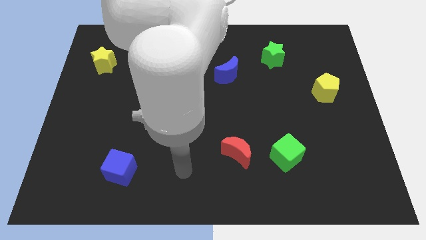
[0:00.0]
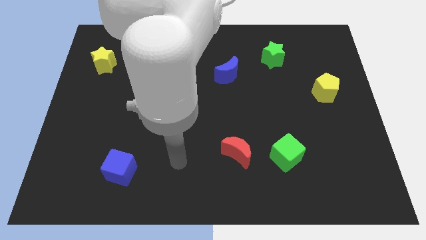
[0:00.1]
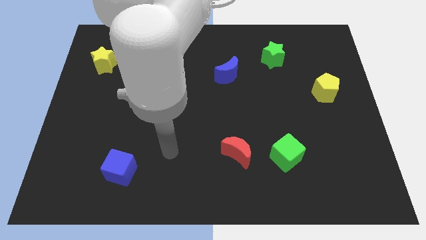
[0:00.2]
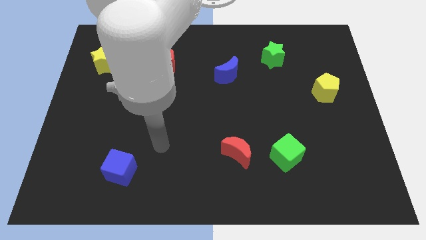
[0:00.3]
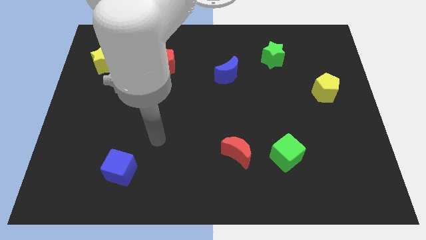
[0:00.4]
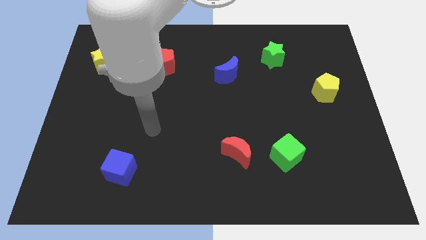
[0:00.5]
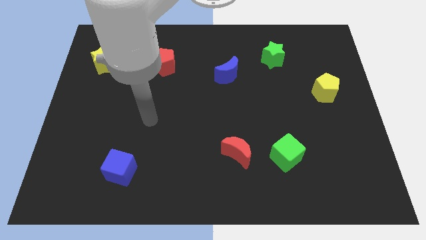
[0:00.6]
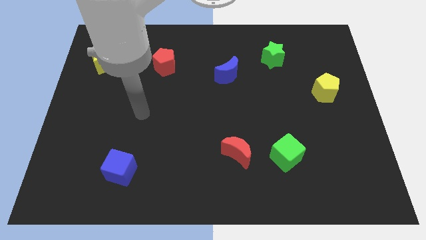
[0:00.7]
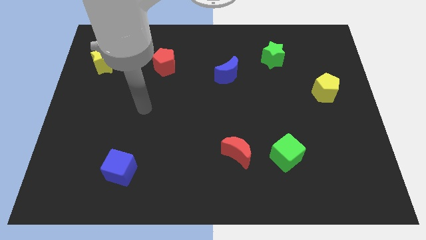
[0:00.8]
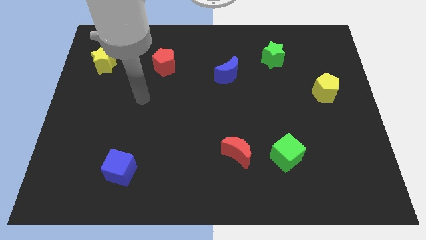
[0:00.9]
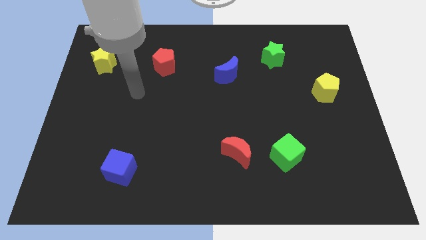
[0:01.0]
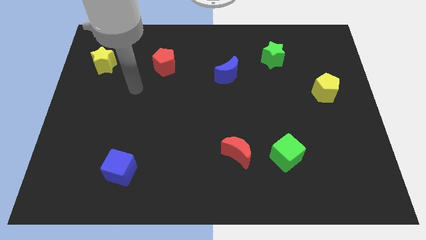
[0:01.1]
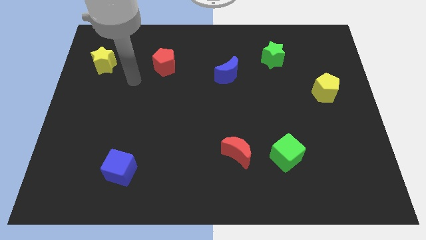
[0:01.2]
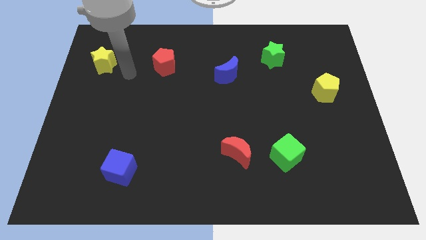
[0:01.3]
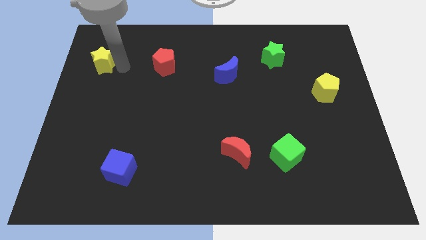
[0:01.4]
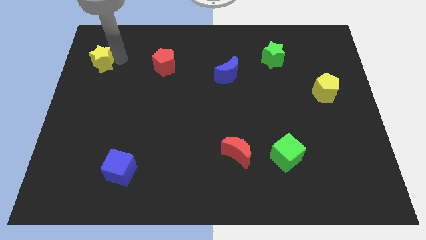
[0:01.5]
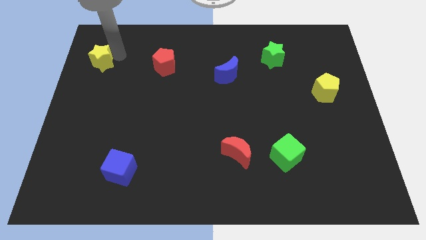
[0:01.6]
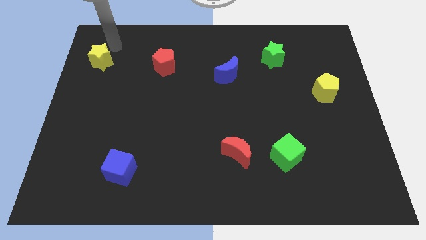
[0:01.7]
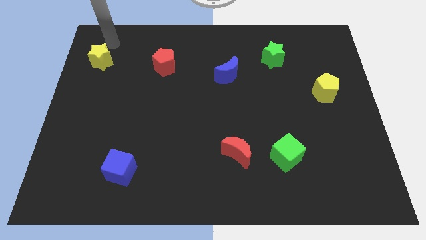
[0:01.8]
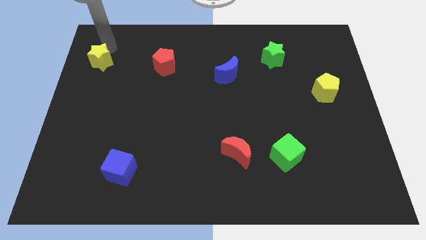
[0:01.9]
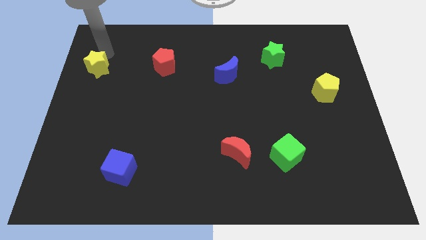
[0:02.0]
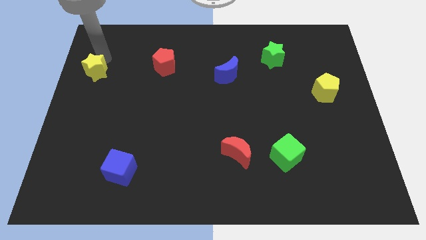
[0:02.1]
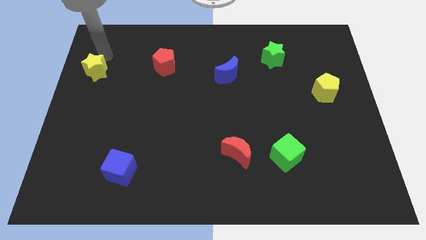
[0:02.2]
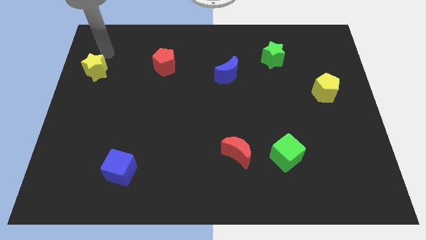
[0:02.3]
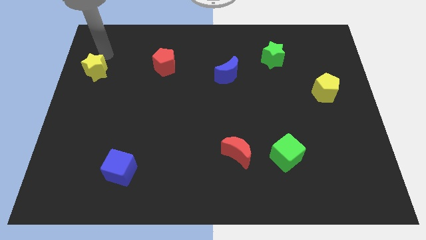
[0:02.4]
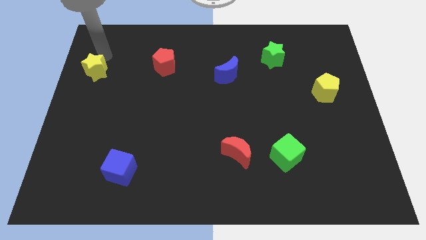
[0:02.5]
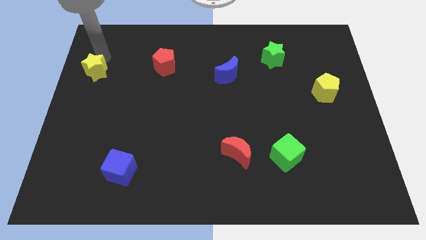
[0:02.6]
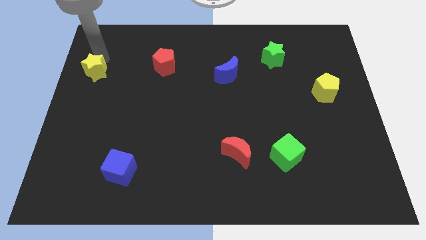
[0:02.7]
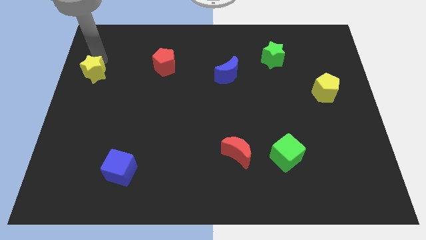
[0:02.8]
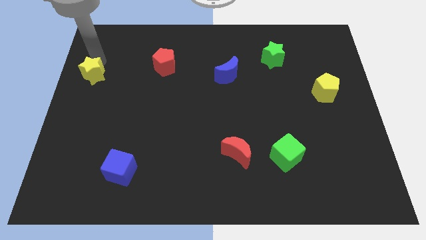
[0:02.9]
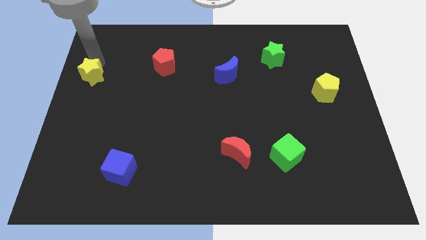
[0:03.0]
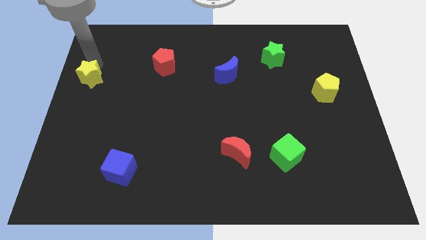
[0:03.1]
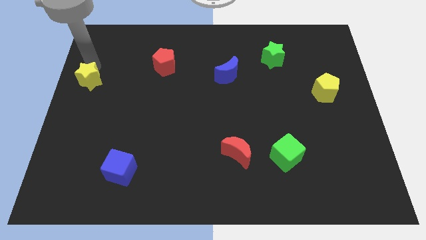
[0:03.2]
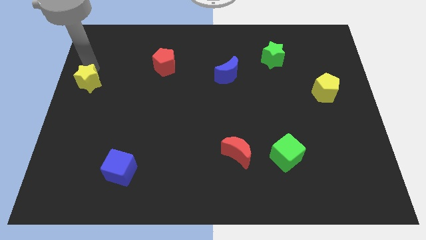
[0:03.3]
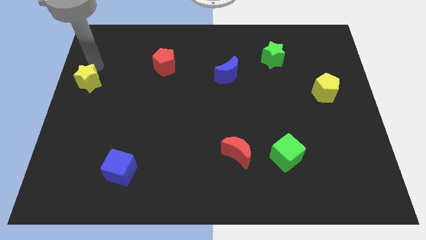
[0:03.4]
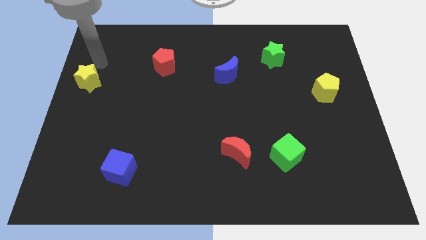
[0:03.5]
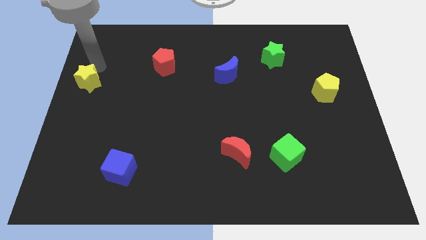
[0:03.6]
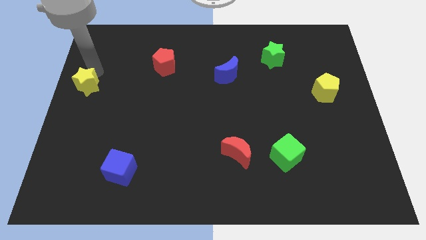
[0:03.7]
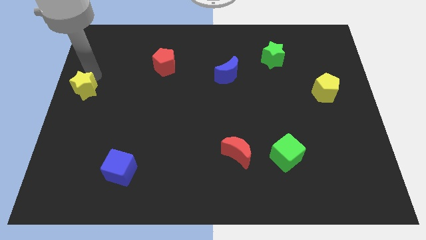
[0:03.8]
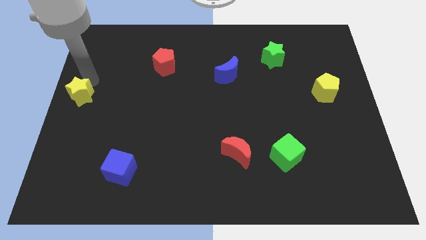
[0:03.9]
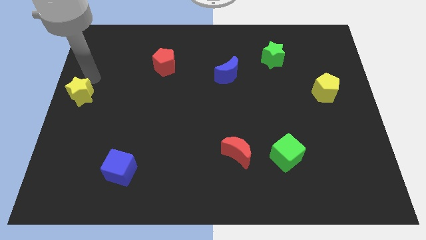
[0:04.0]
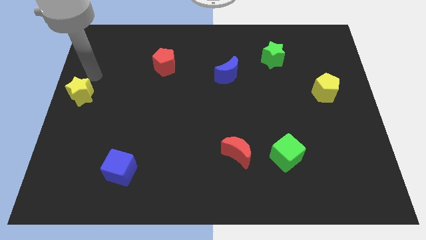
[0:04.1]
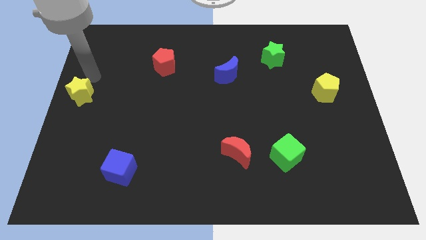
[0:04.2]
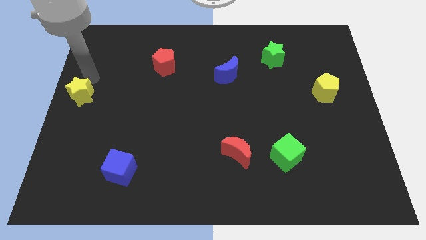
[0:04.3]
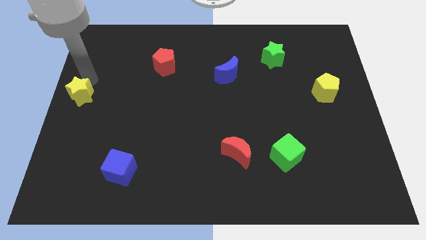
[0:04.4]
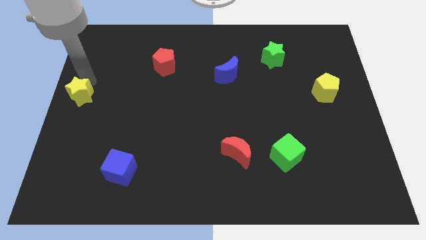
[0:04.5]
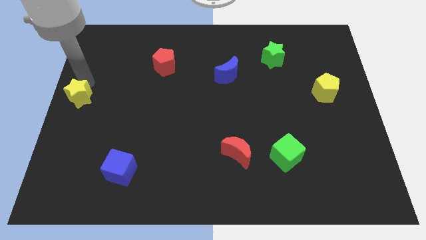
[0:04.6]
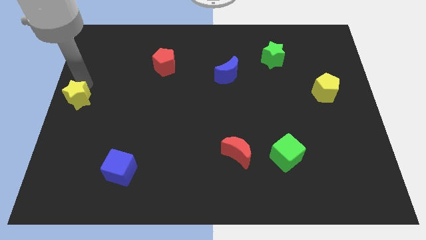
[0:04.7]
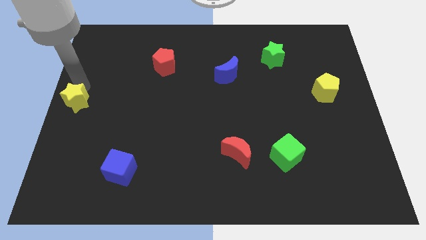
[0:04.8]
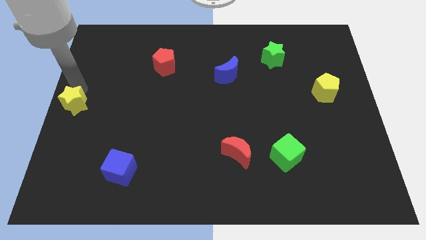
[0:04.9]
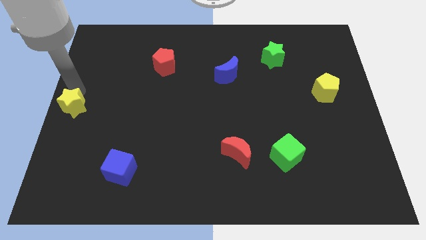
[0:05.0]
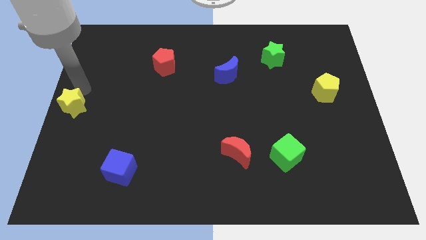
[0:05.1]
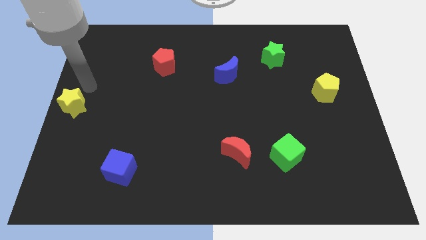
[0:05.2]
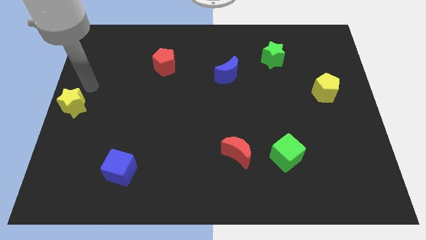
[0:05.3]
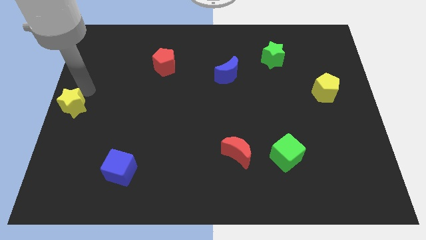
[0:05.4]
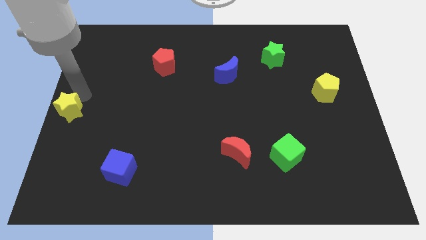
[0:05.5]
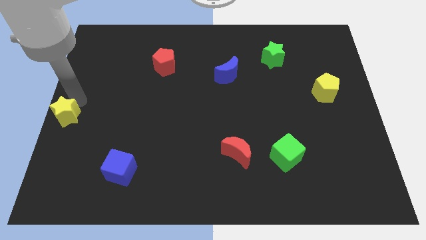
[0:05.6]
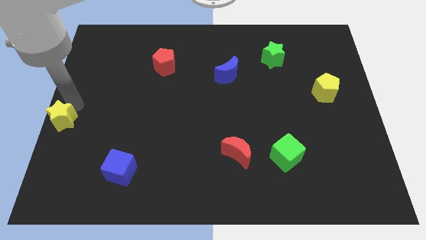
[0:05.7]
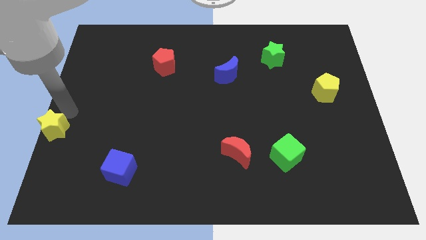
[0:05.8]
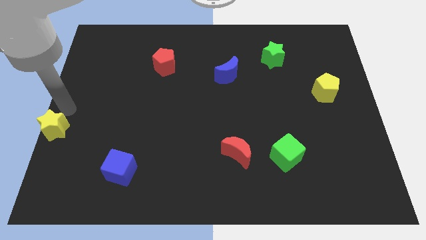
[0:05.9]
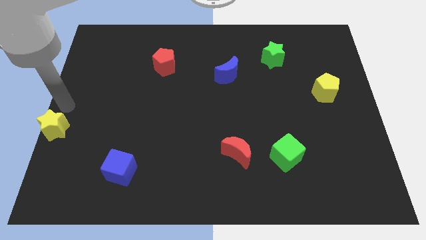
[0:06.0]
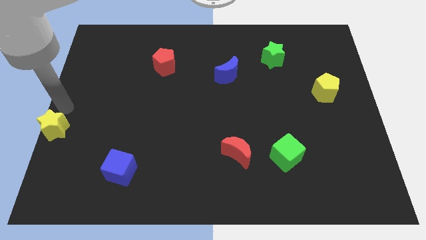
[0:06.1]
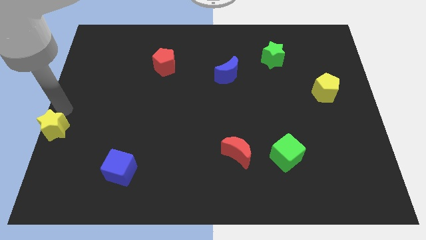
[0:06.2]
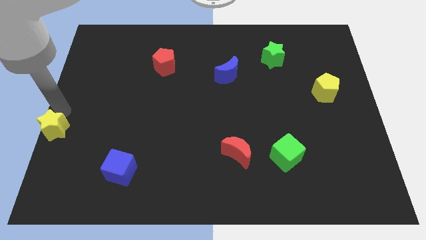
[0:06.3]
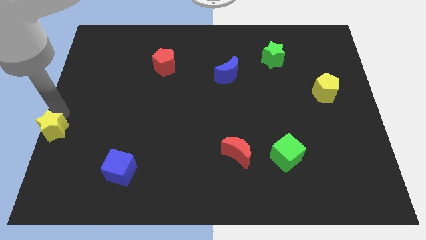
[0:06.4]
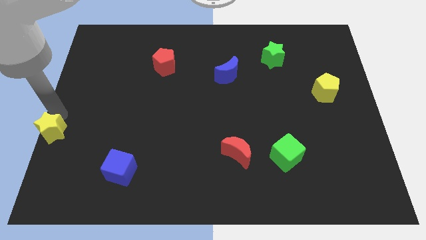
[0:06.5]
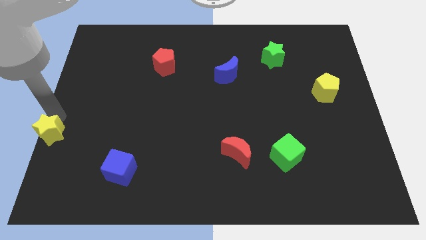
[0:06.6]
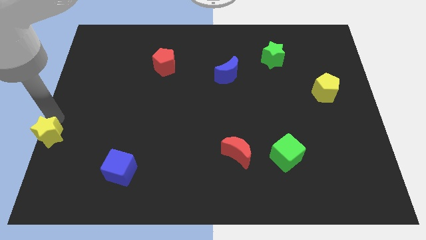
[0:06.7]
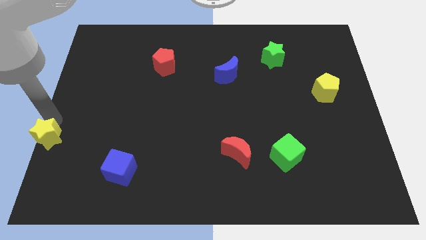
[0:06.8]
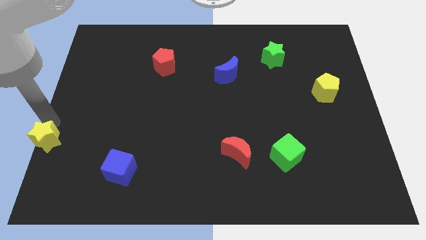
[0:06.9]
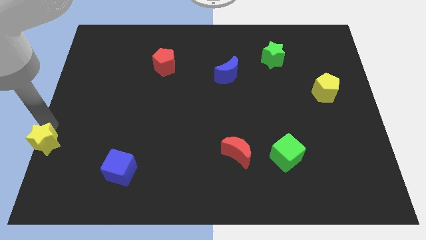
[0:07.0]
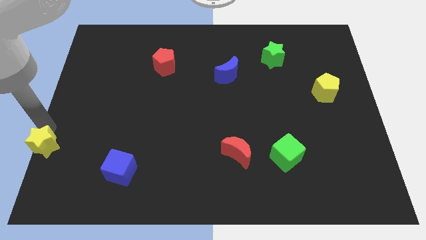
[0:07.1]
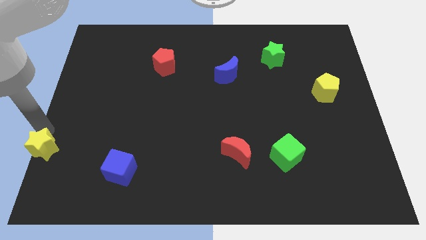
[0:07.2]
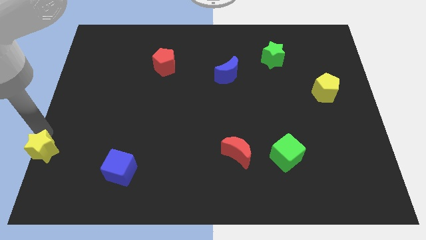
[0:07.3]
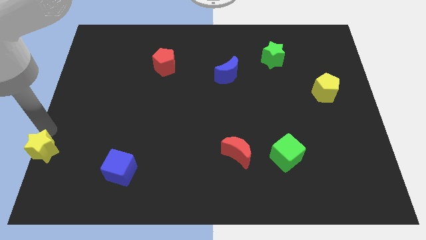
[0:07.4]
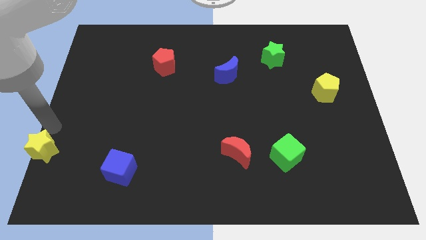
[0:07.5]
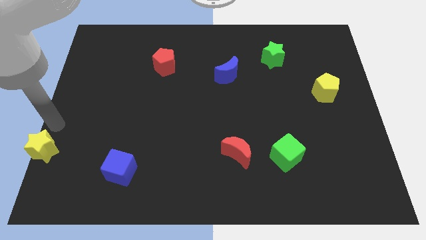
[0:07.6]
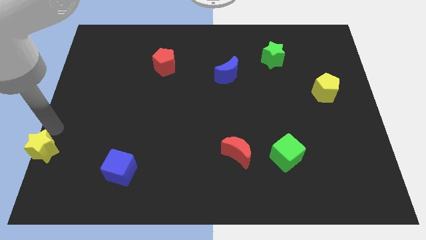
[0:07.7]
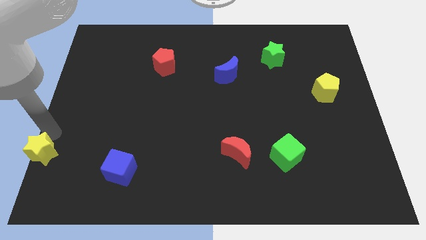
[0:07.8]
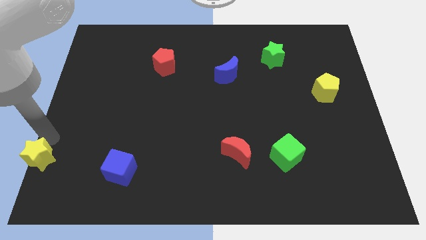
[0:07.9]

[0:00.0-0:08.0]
move the yellow star to the bottom left of the board
